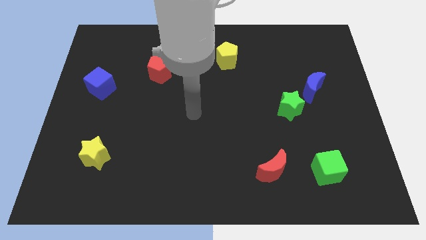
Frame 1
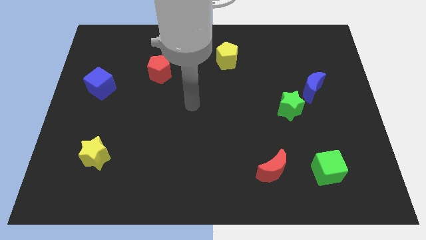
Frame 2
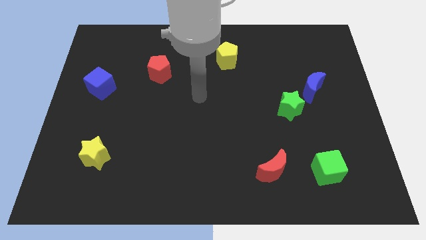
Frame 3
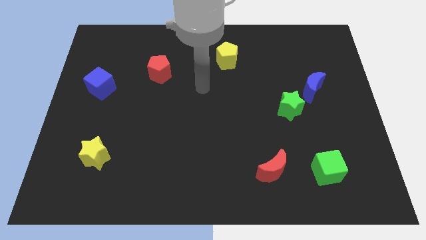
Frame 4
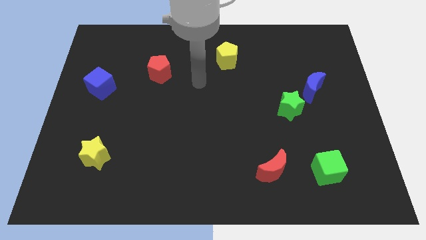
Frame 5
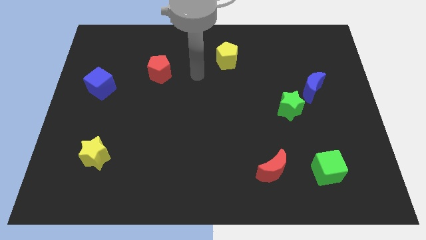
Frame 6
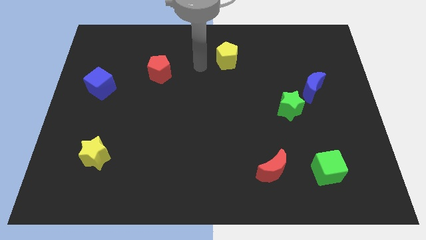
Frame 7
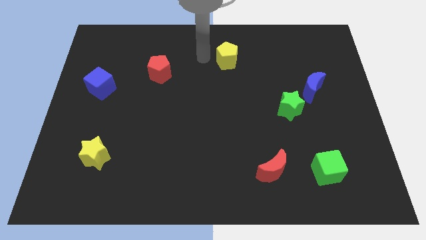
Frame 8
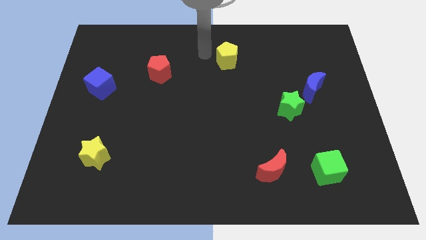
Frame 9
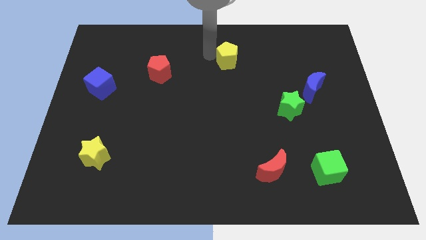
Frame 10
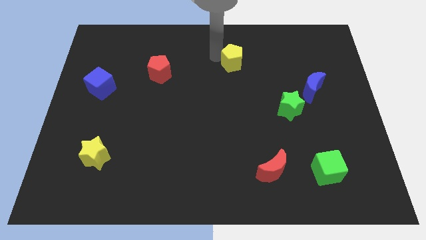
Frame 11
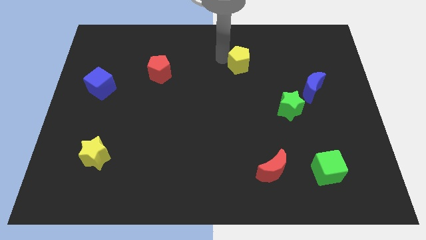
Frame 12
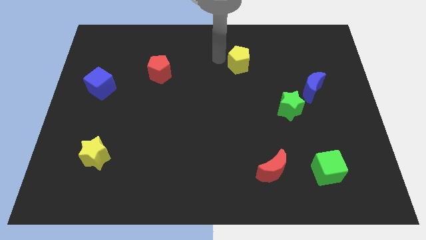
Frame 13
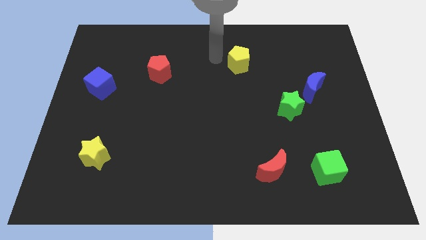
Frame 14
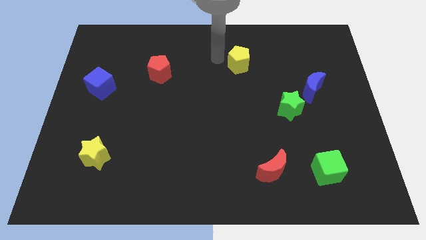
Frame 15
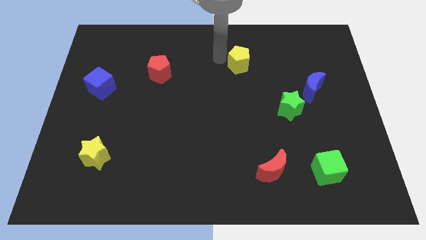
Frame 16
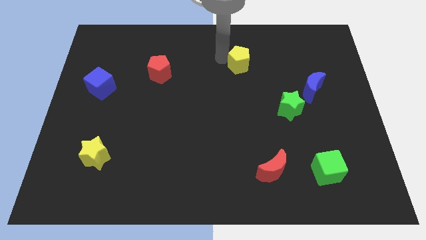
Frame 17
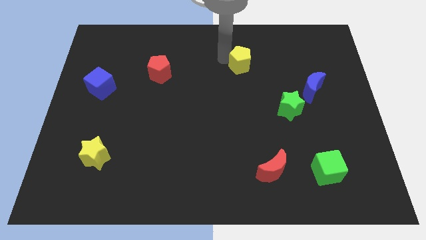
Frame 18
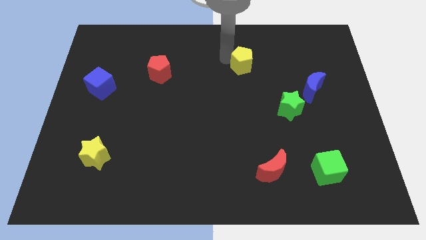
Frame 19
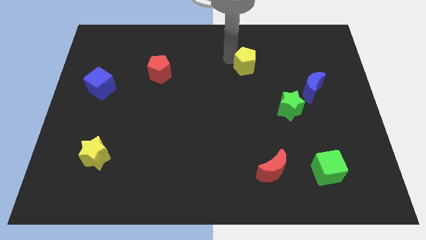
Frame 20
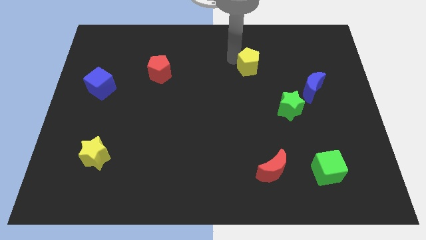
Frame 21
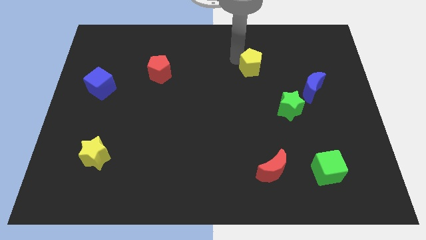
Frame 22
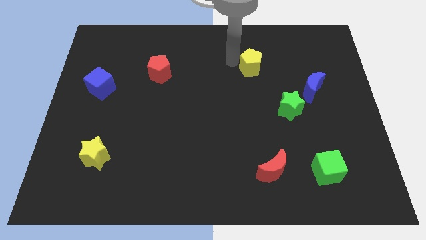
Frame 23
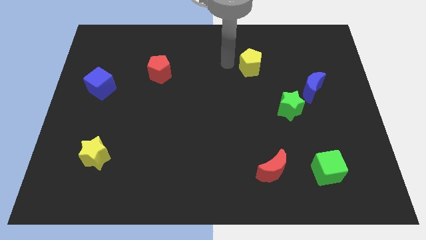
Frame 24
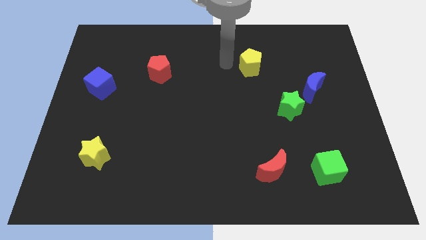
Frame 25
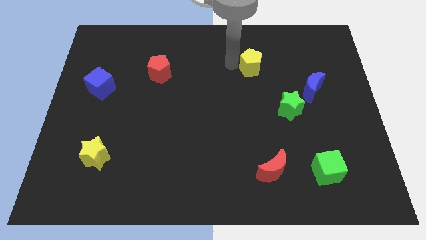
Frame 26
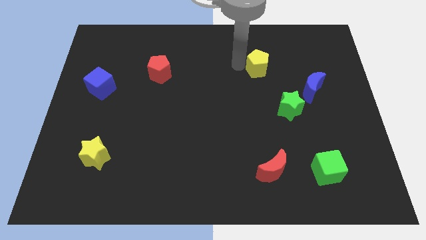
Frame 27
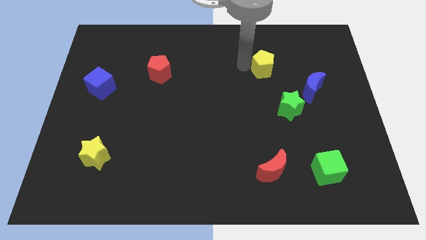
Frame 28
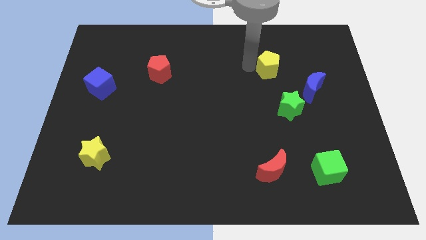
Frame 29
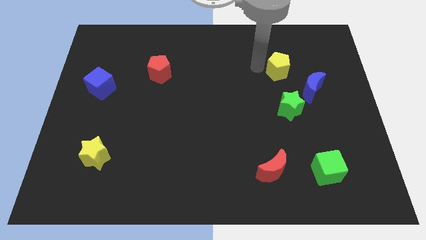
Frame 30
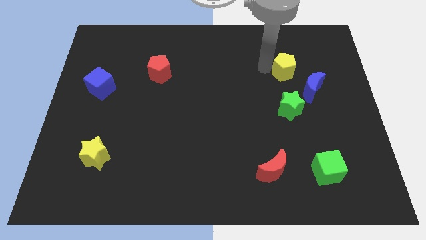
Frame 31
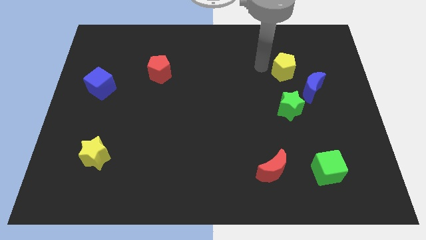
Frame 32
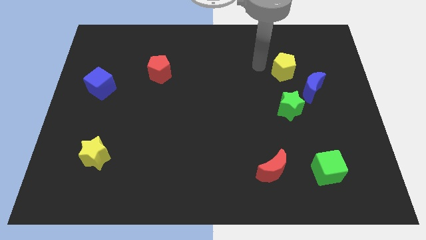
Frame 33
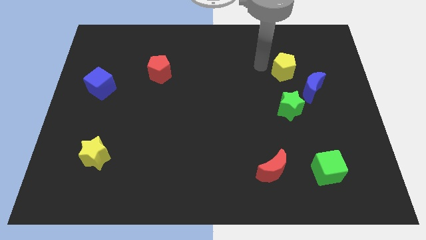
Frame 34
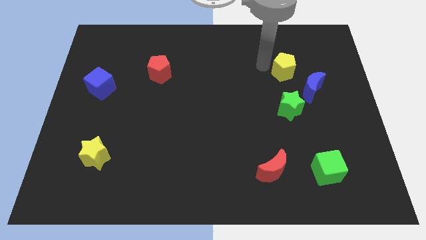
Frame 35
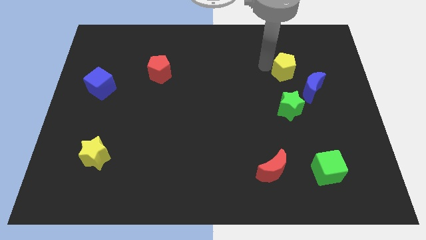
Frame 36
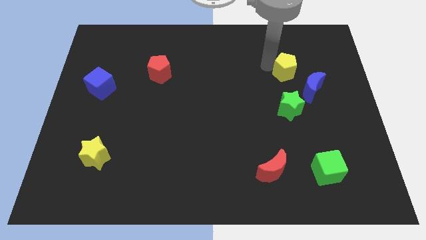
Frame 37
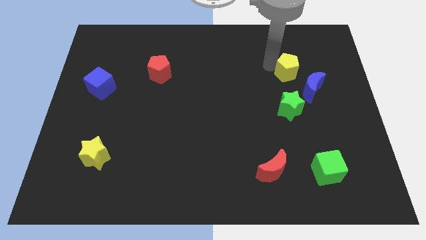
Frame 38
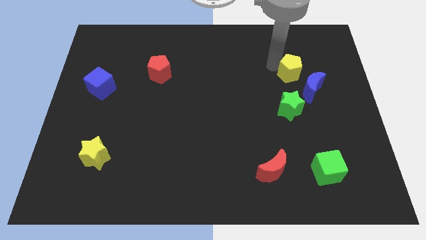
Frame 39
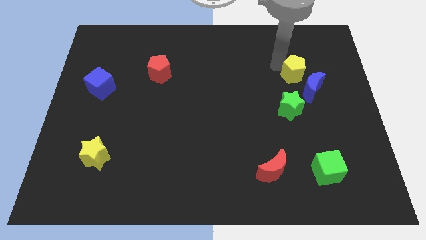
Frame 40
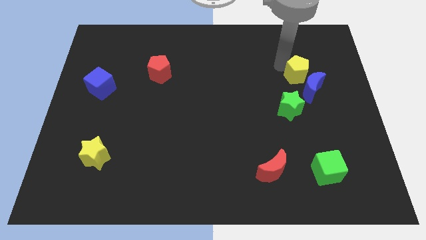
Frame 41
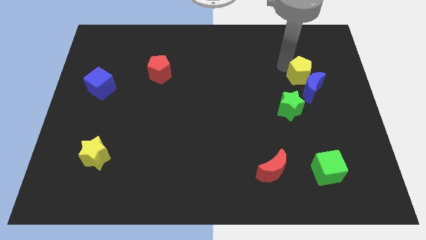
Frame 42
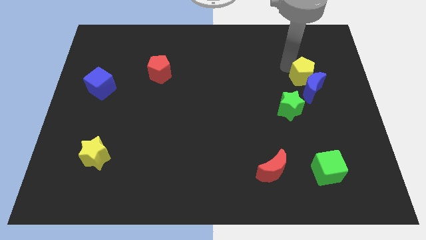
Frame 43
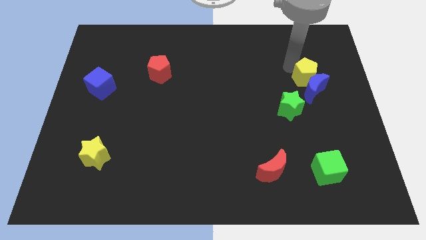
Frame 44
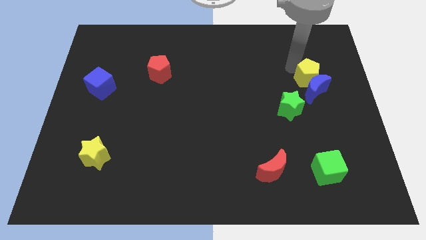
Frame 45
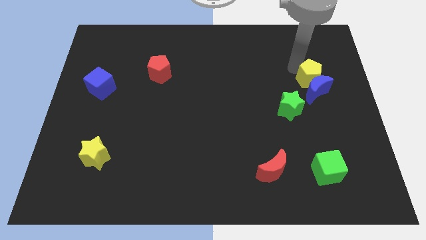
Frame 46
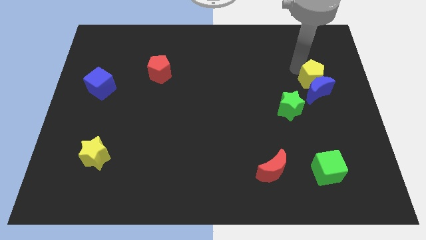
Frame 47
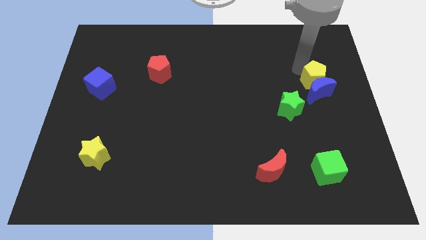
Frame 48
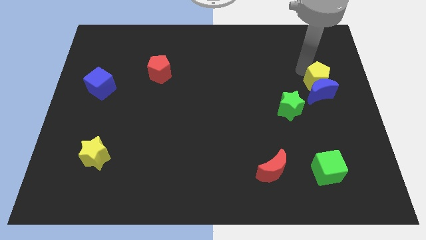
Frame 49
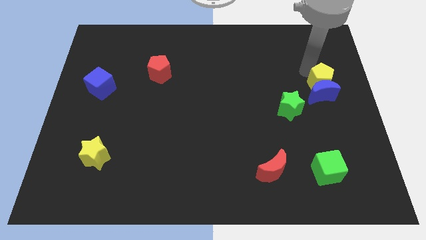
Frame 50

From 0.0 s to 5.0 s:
slide the yellow pentagon to the center right

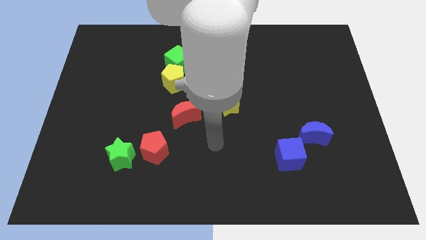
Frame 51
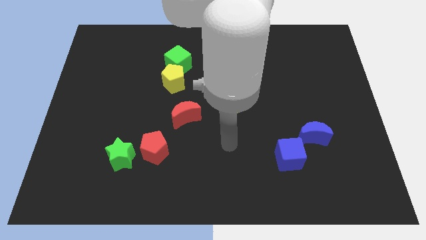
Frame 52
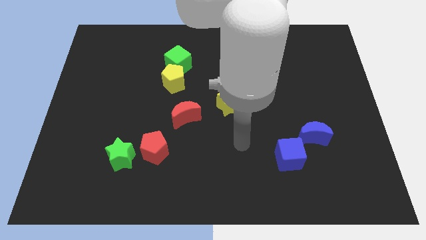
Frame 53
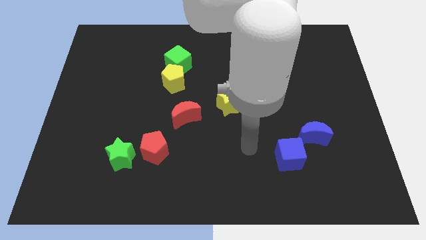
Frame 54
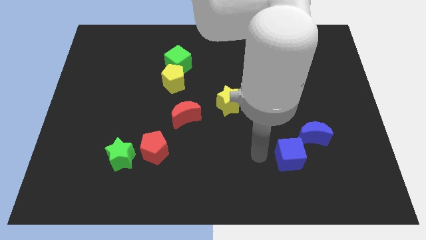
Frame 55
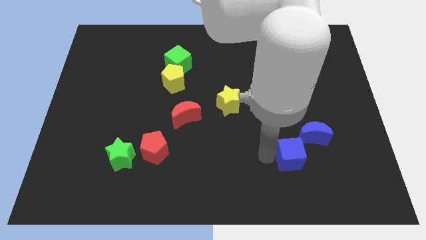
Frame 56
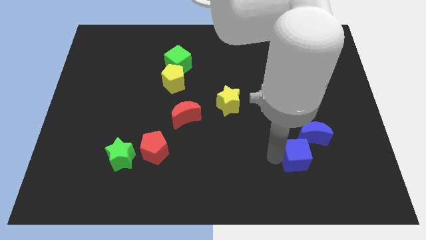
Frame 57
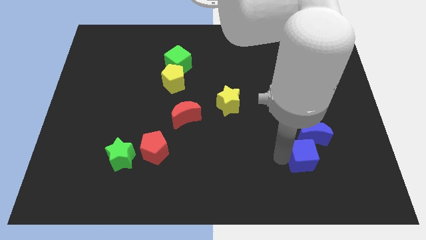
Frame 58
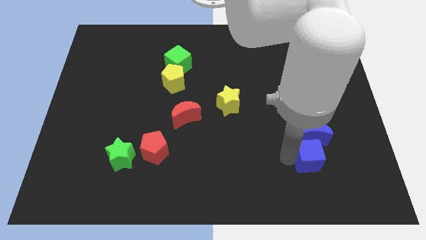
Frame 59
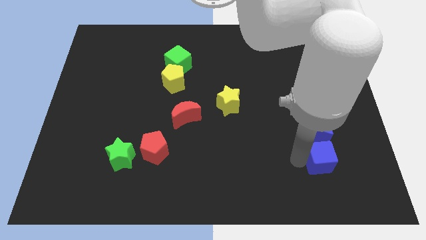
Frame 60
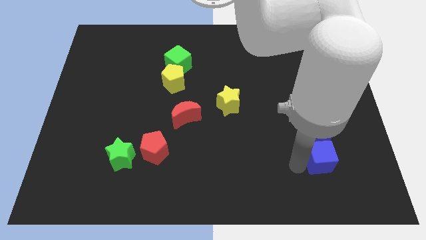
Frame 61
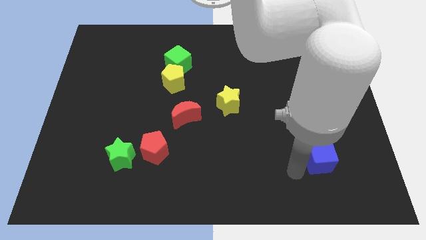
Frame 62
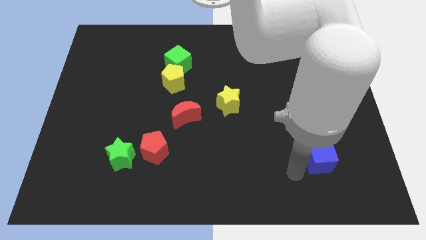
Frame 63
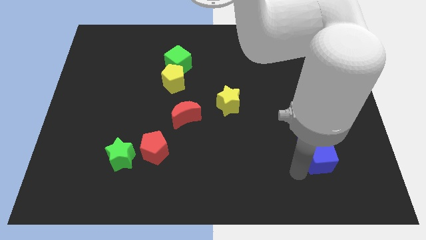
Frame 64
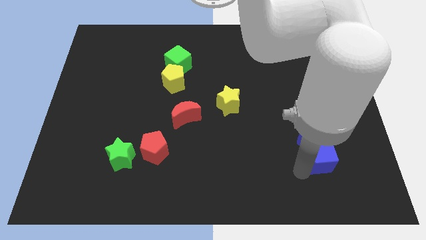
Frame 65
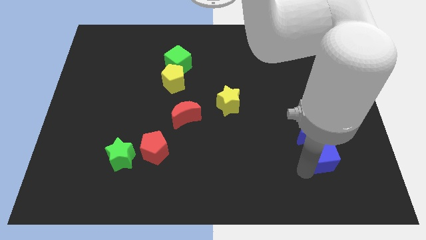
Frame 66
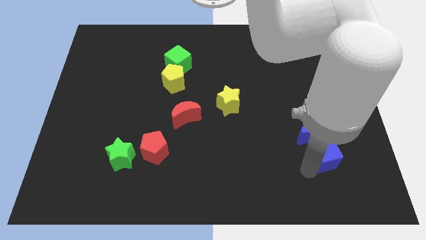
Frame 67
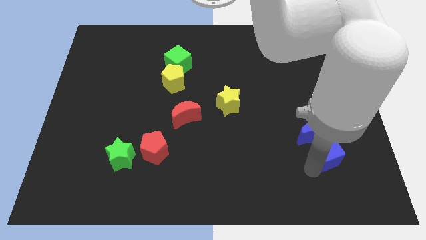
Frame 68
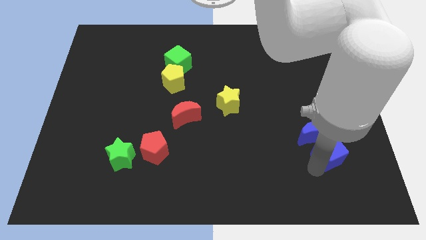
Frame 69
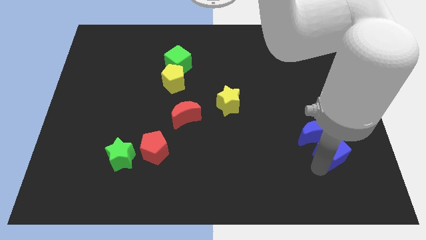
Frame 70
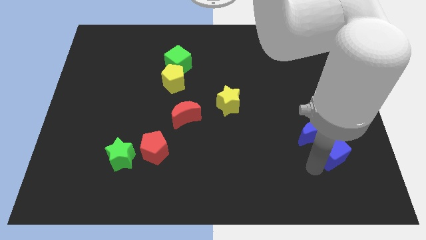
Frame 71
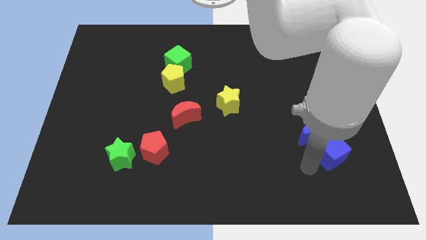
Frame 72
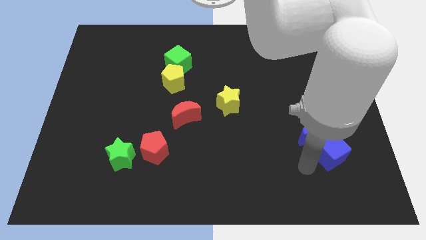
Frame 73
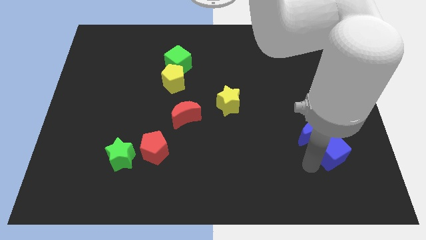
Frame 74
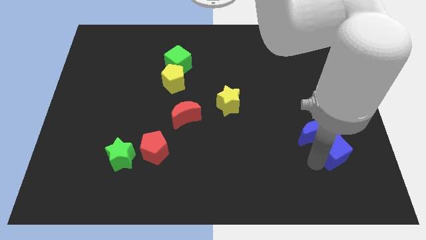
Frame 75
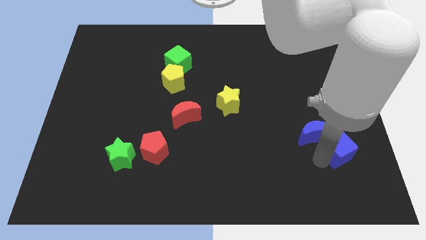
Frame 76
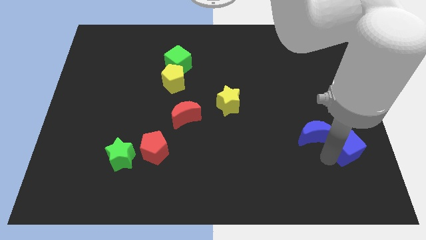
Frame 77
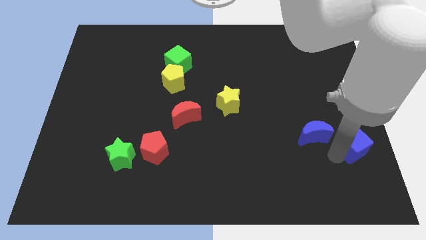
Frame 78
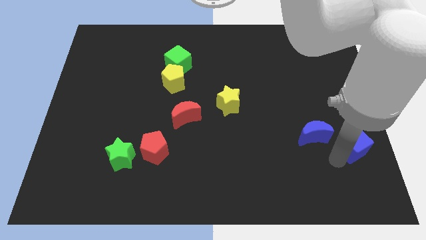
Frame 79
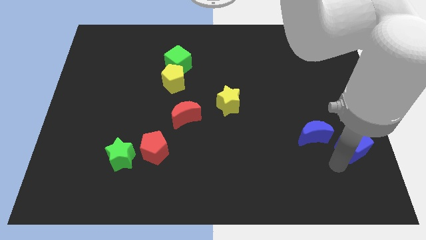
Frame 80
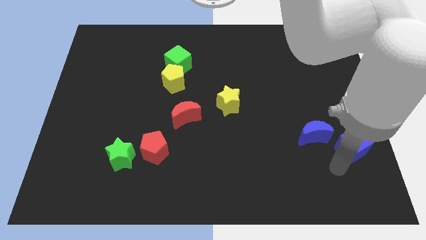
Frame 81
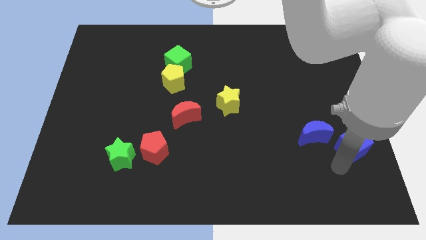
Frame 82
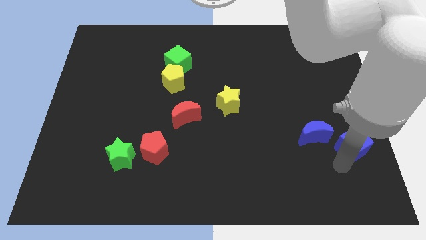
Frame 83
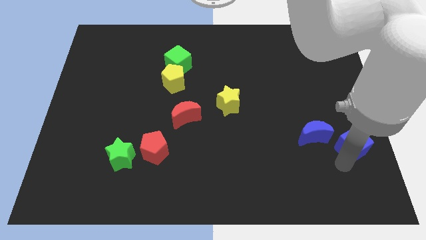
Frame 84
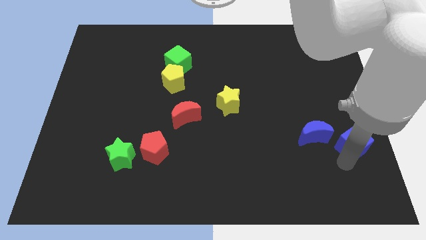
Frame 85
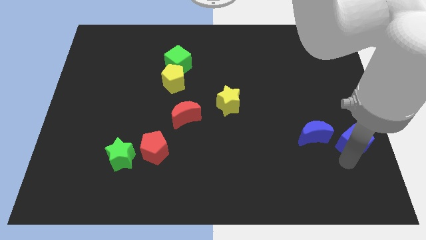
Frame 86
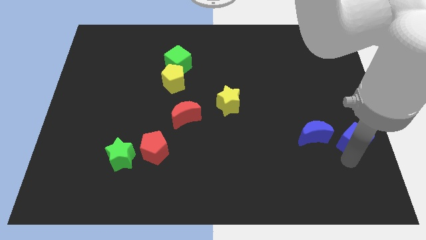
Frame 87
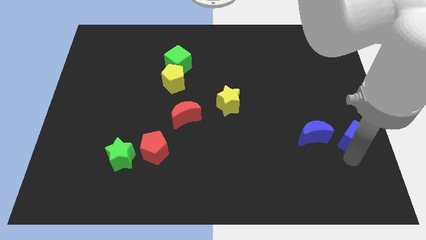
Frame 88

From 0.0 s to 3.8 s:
push the blue cube to the right side
